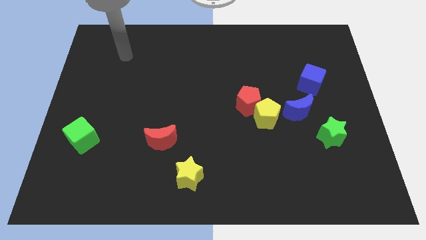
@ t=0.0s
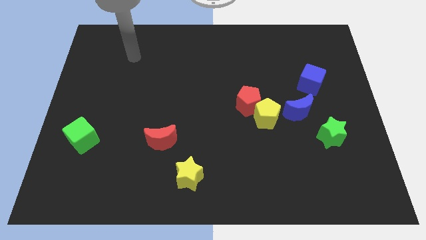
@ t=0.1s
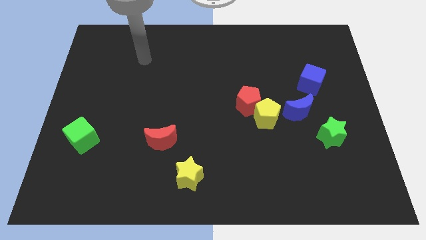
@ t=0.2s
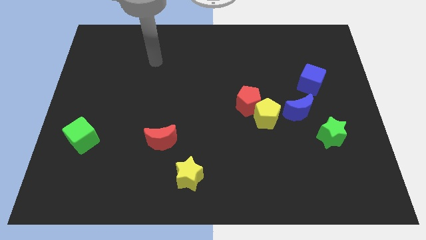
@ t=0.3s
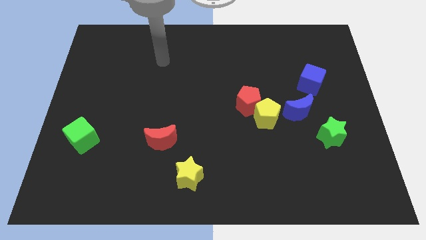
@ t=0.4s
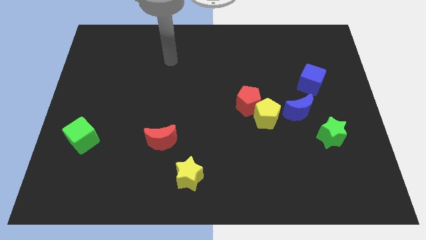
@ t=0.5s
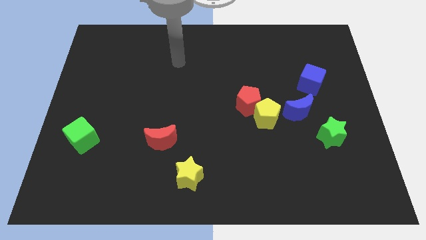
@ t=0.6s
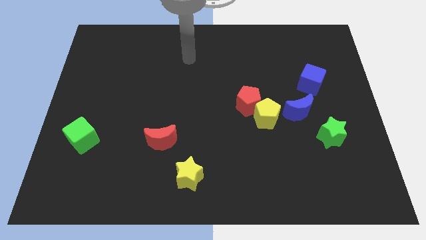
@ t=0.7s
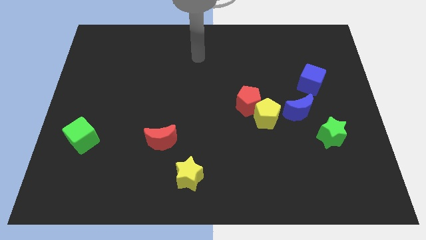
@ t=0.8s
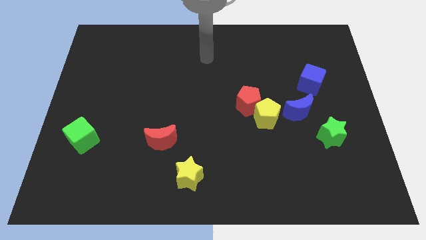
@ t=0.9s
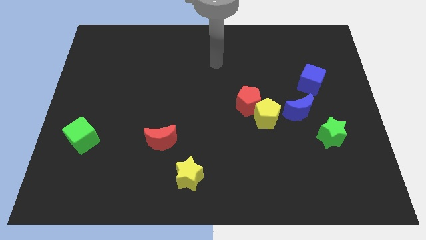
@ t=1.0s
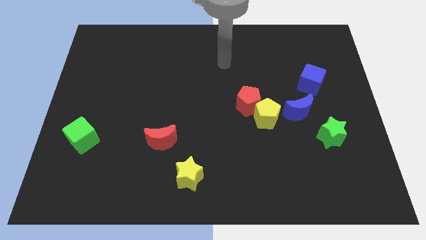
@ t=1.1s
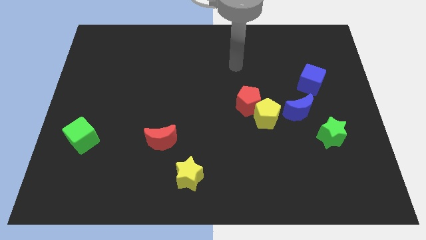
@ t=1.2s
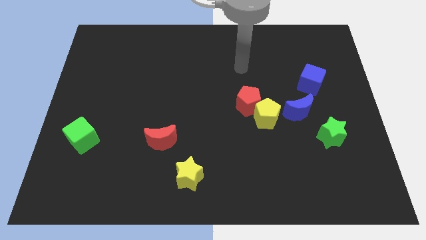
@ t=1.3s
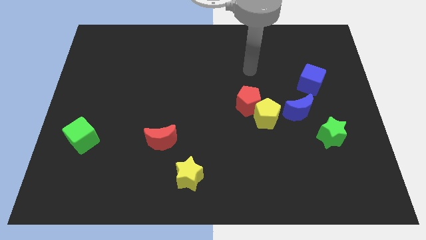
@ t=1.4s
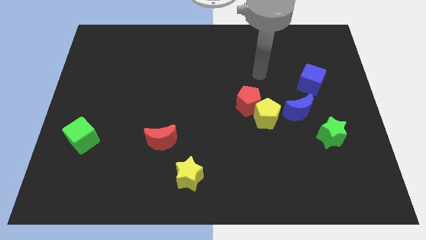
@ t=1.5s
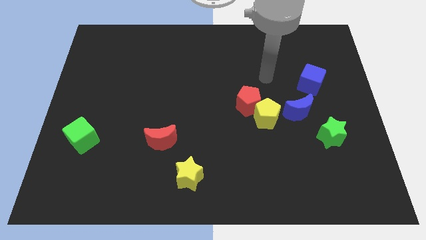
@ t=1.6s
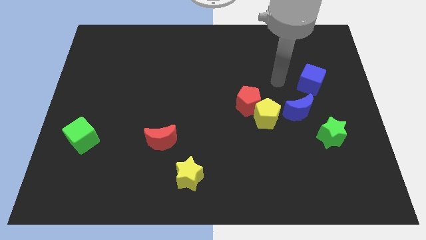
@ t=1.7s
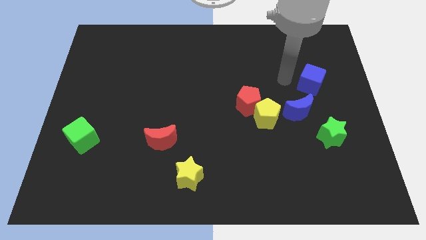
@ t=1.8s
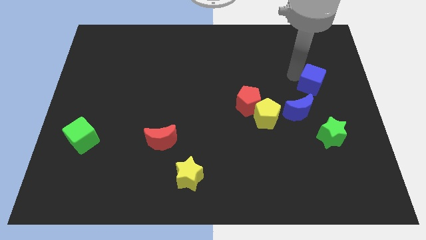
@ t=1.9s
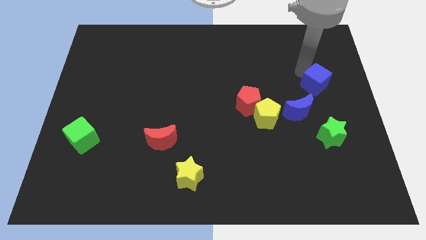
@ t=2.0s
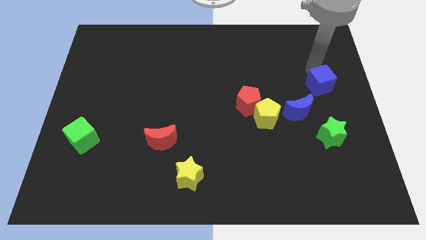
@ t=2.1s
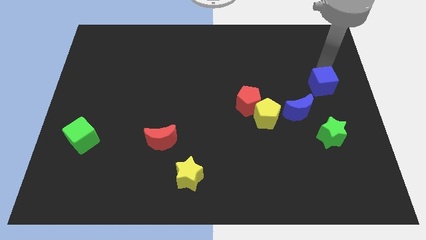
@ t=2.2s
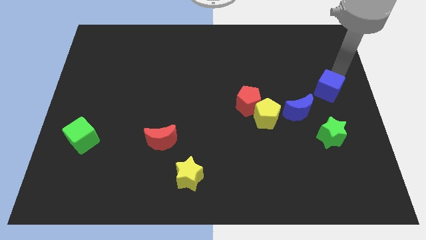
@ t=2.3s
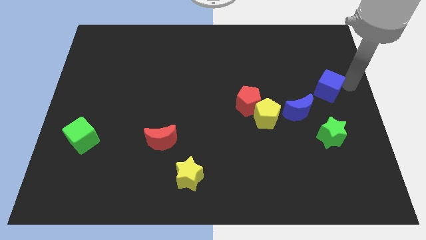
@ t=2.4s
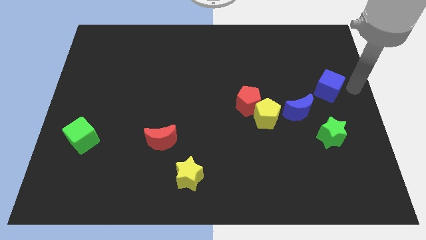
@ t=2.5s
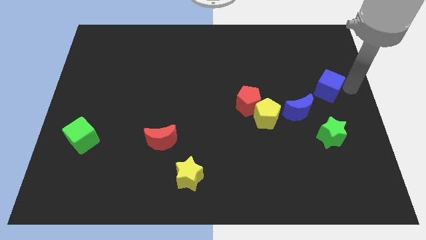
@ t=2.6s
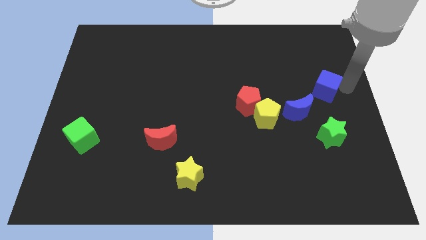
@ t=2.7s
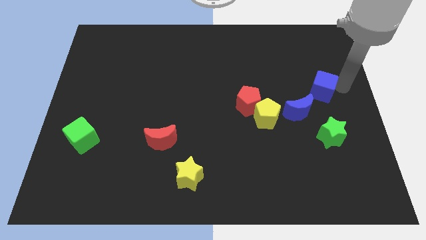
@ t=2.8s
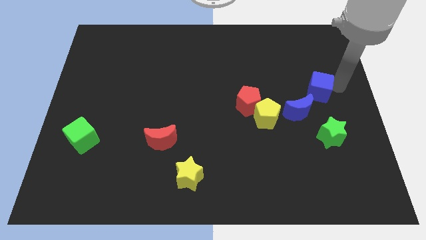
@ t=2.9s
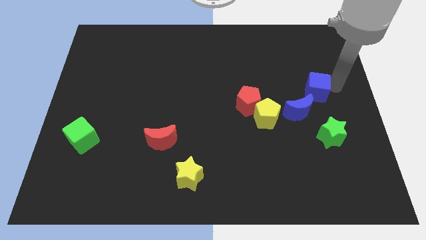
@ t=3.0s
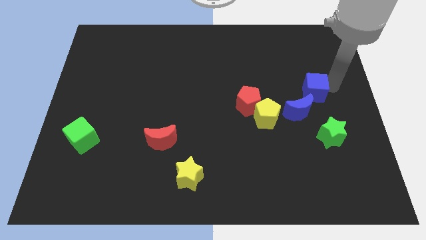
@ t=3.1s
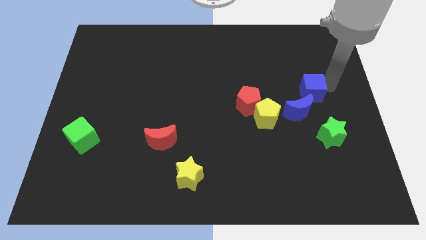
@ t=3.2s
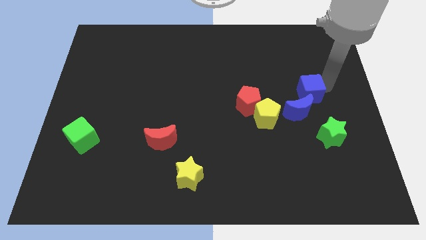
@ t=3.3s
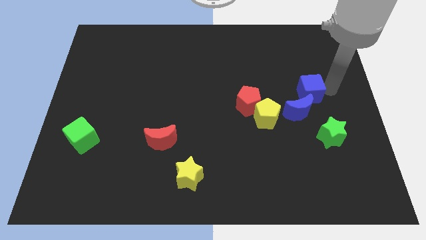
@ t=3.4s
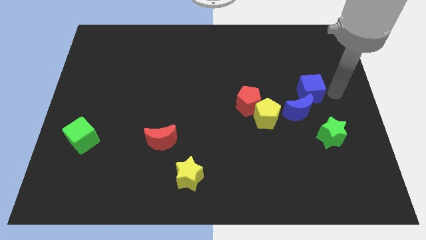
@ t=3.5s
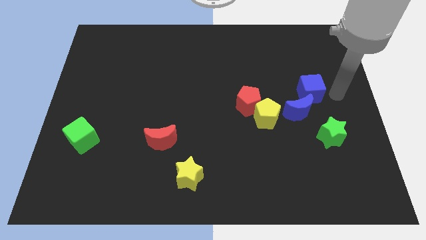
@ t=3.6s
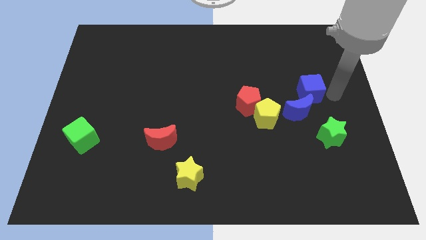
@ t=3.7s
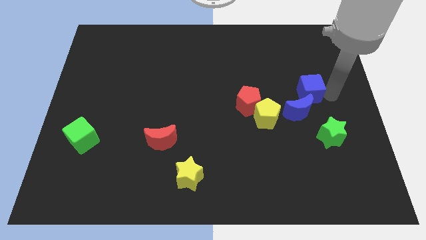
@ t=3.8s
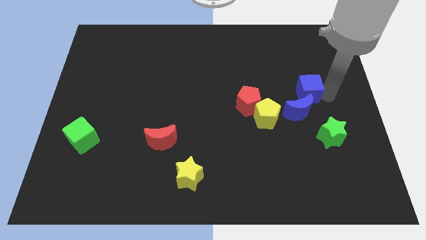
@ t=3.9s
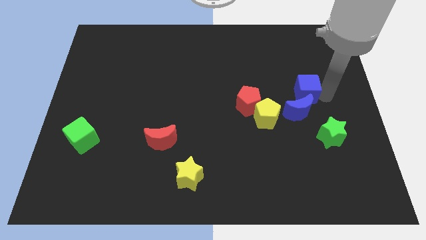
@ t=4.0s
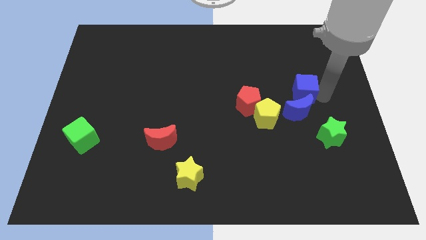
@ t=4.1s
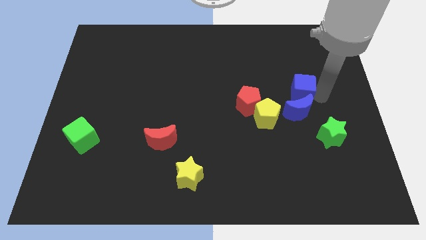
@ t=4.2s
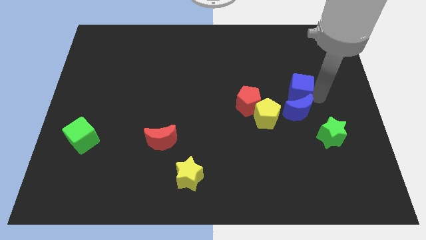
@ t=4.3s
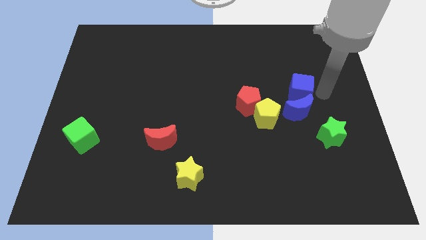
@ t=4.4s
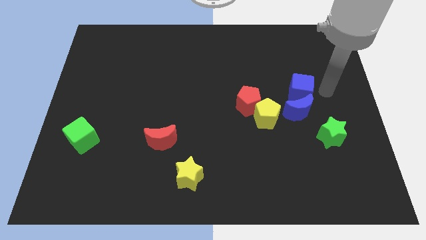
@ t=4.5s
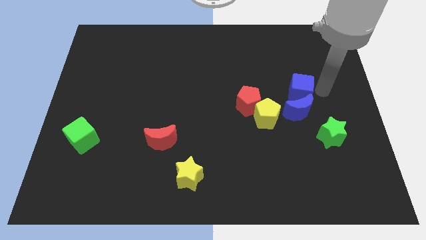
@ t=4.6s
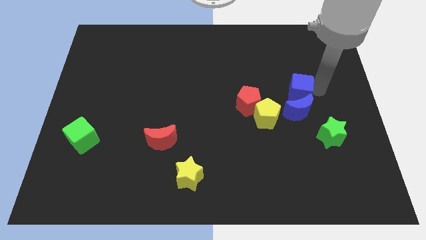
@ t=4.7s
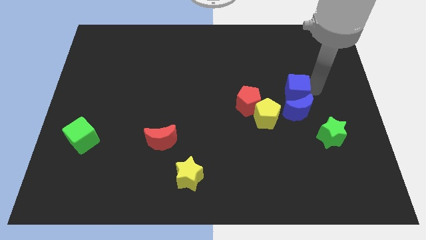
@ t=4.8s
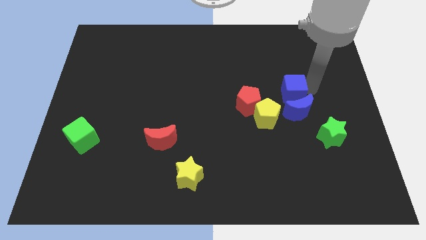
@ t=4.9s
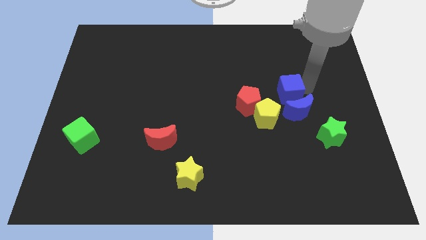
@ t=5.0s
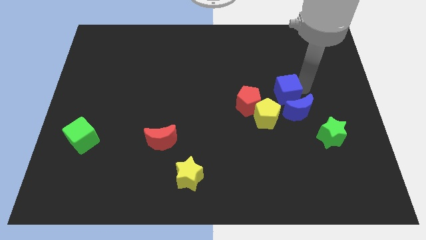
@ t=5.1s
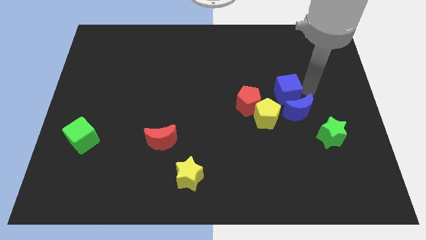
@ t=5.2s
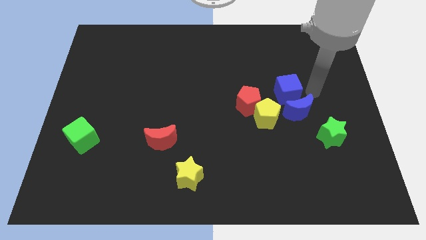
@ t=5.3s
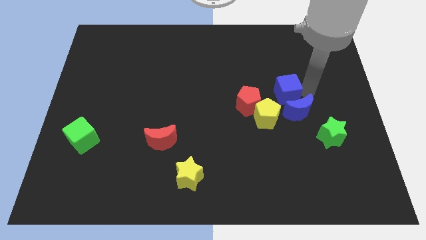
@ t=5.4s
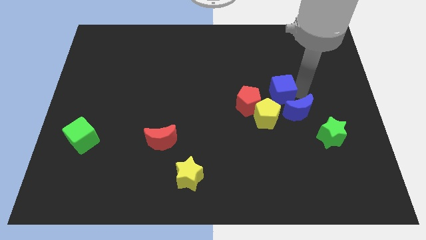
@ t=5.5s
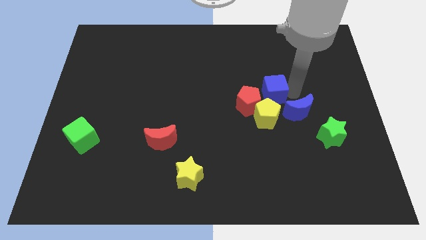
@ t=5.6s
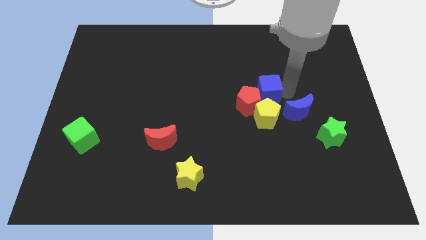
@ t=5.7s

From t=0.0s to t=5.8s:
move the blue cube close to the red pentagon

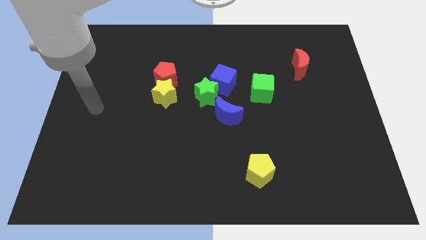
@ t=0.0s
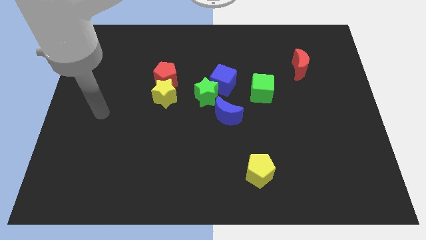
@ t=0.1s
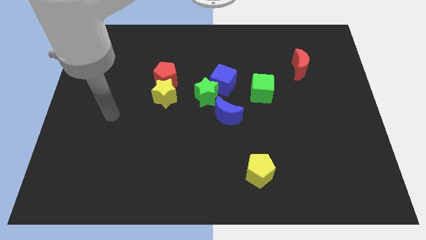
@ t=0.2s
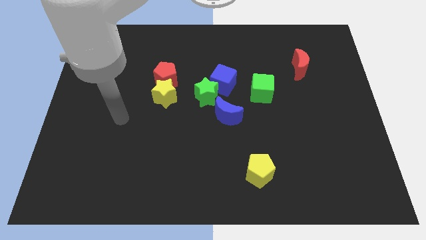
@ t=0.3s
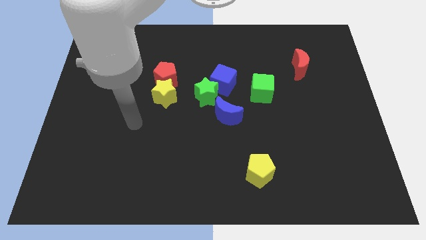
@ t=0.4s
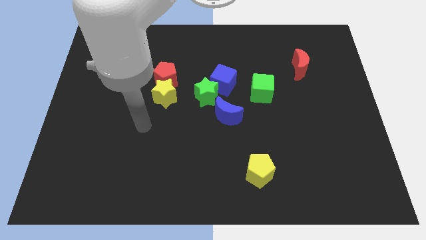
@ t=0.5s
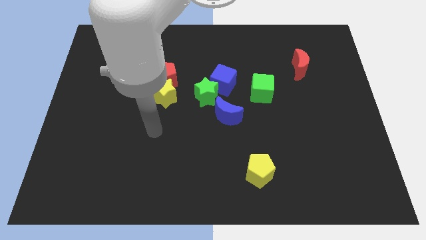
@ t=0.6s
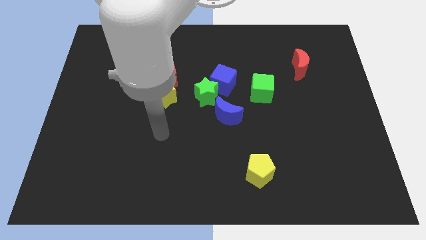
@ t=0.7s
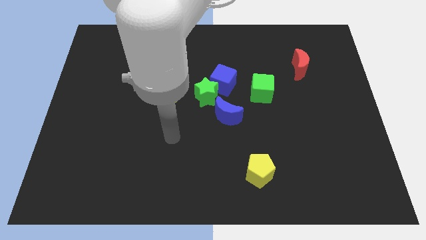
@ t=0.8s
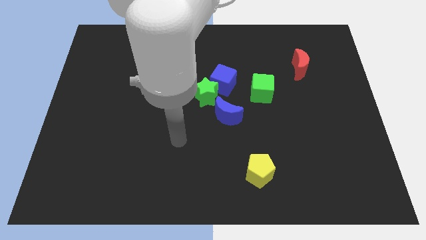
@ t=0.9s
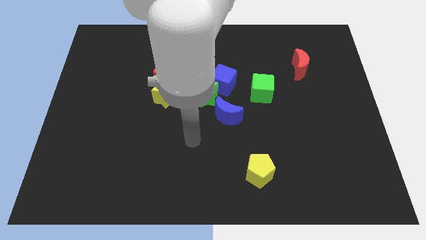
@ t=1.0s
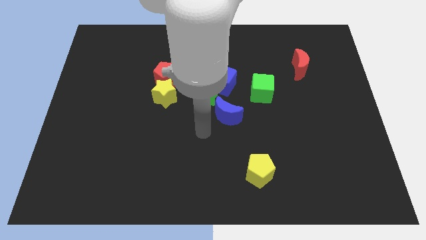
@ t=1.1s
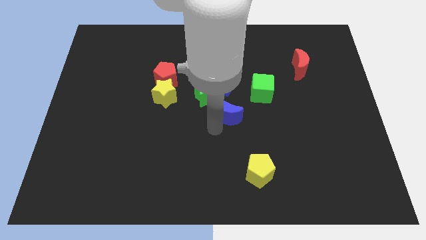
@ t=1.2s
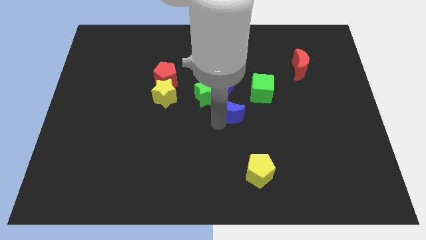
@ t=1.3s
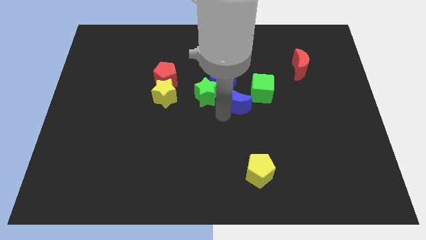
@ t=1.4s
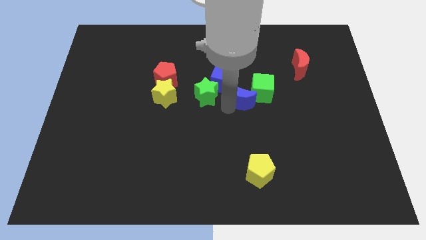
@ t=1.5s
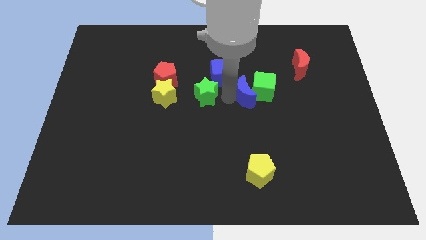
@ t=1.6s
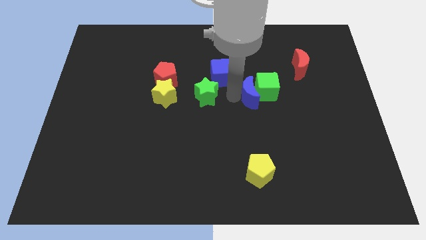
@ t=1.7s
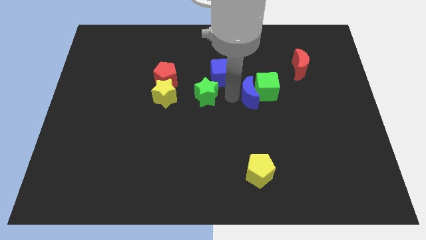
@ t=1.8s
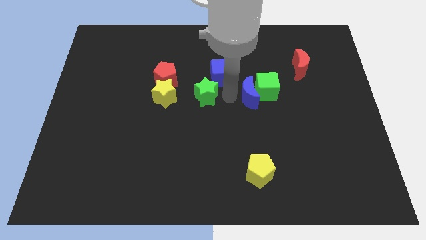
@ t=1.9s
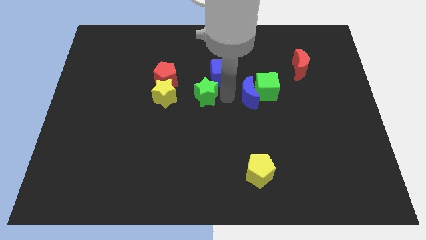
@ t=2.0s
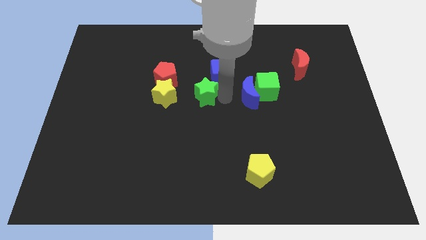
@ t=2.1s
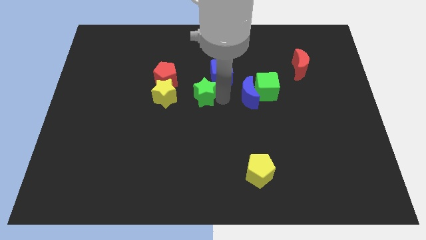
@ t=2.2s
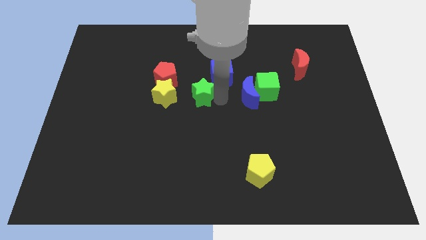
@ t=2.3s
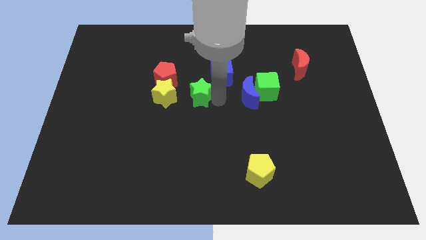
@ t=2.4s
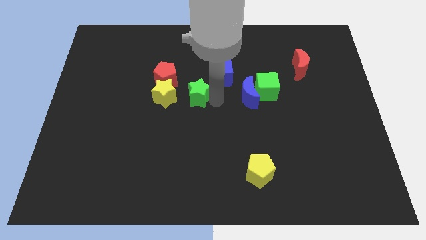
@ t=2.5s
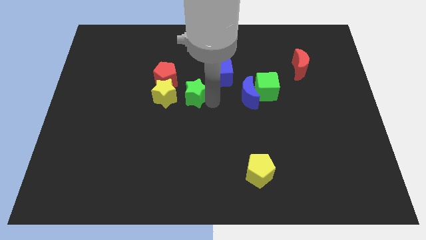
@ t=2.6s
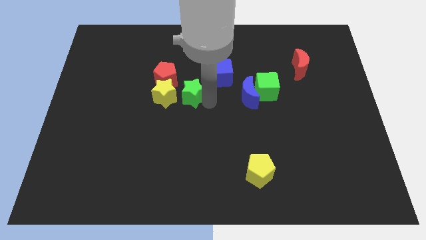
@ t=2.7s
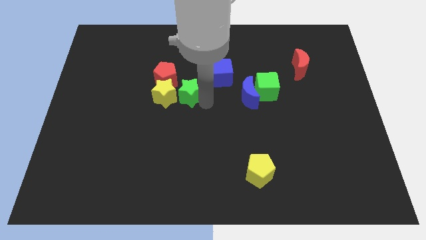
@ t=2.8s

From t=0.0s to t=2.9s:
move the green star to the yellow star
